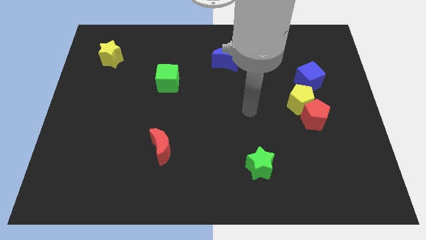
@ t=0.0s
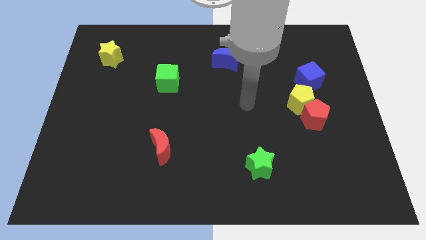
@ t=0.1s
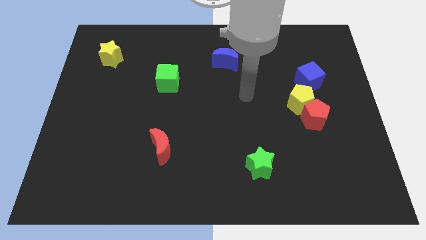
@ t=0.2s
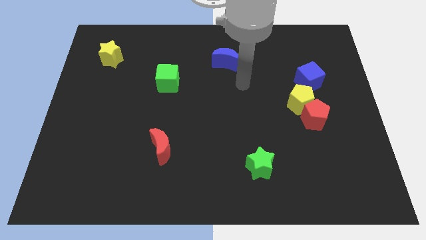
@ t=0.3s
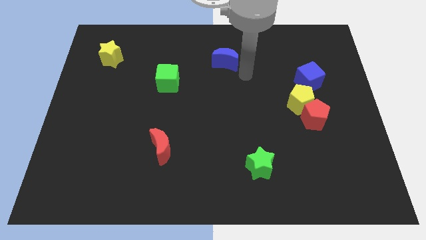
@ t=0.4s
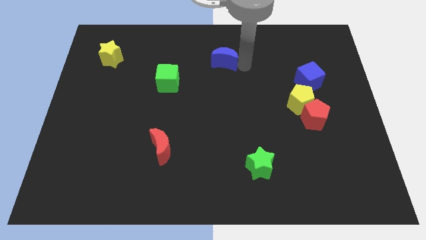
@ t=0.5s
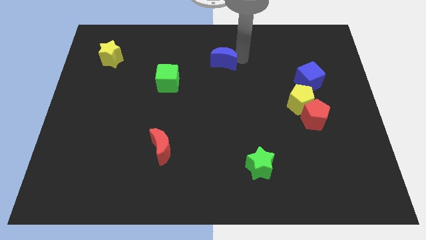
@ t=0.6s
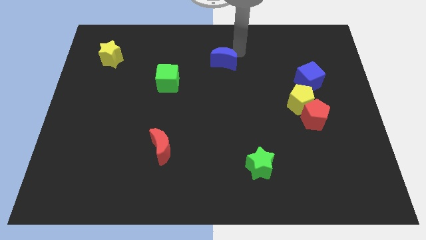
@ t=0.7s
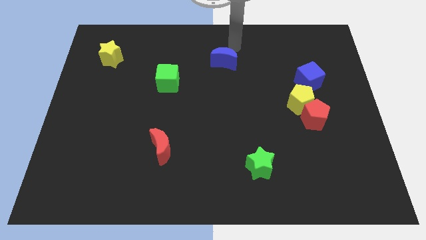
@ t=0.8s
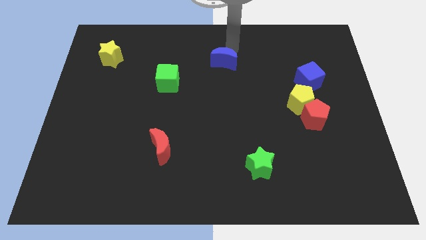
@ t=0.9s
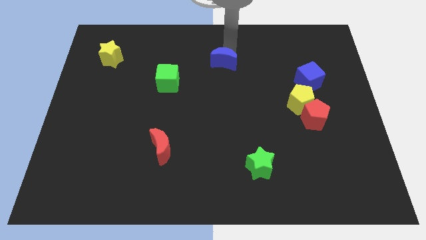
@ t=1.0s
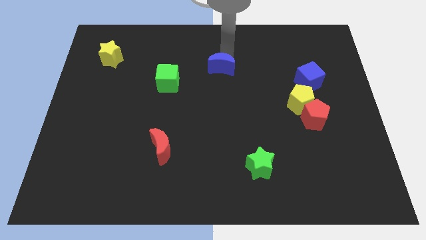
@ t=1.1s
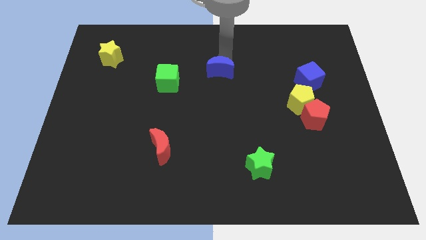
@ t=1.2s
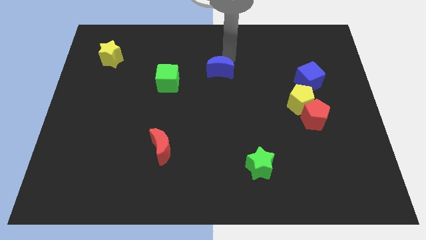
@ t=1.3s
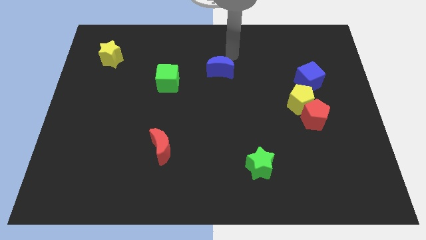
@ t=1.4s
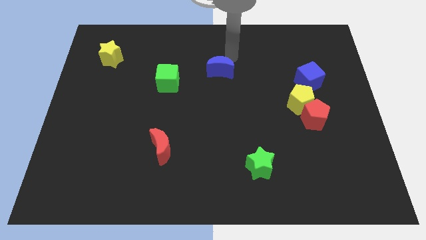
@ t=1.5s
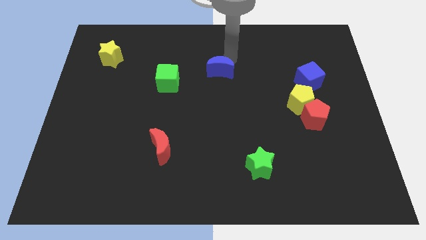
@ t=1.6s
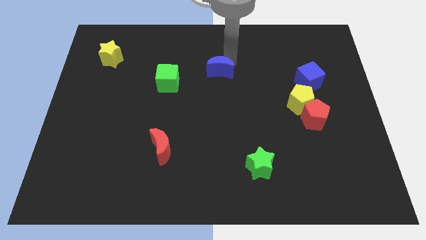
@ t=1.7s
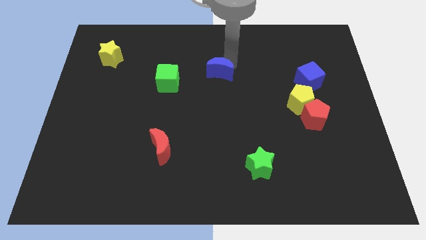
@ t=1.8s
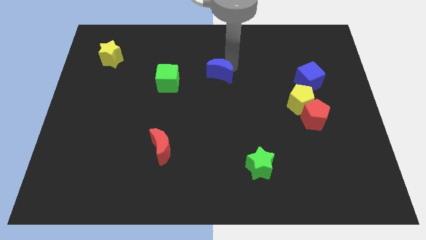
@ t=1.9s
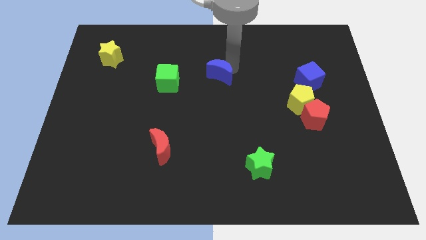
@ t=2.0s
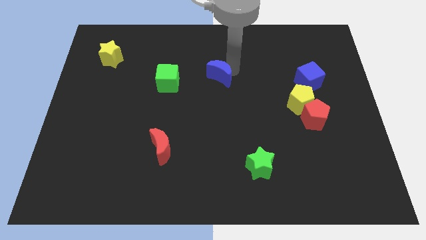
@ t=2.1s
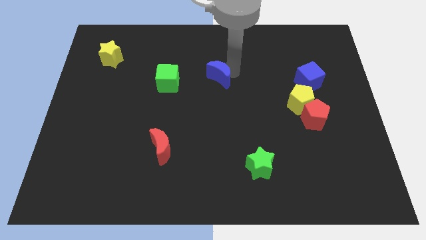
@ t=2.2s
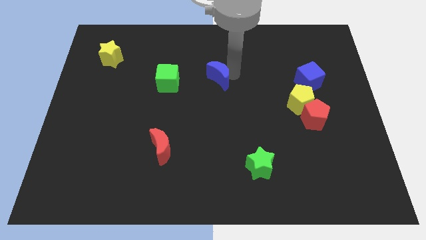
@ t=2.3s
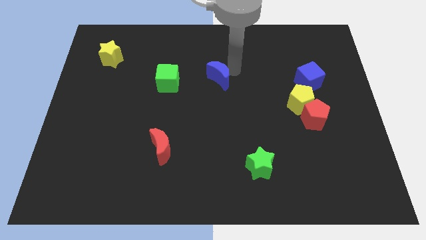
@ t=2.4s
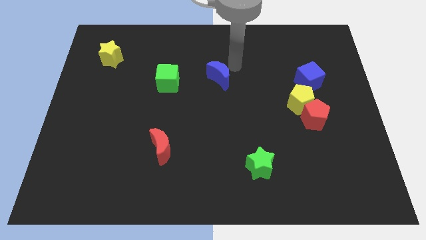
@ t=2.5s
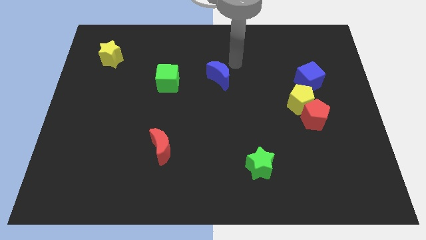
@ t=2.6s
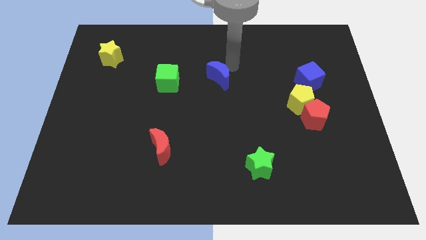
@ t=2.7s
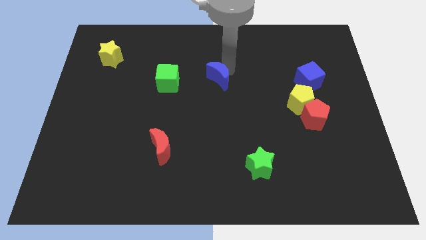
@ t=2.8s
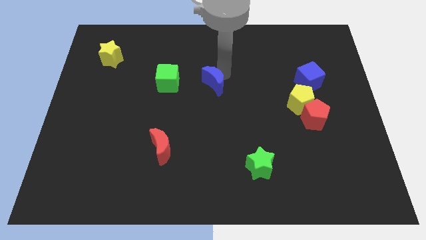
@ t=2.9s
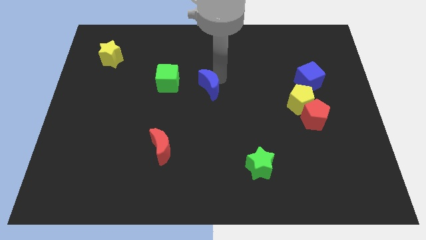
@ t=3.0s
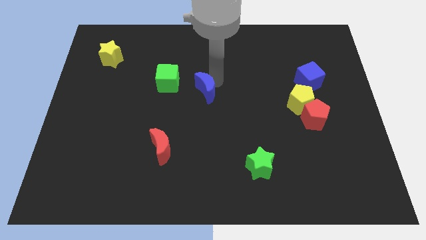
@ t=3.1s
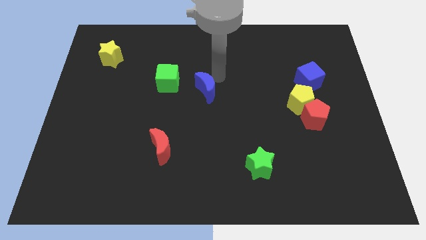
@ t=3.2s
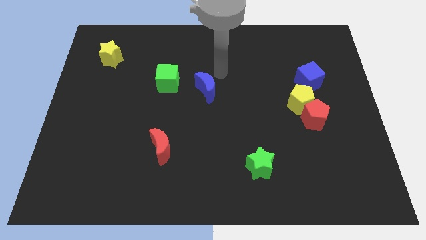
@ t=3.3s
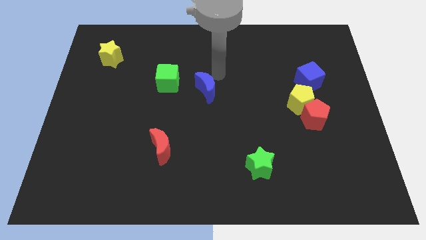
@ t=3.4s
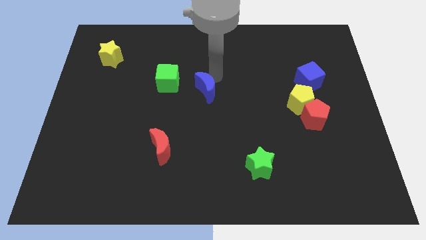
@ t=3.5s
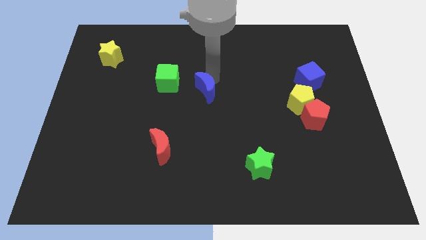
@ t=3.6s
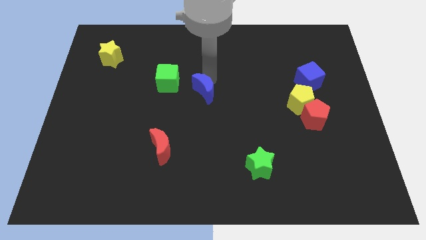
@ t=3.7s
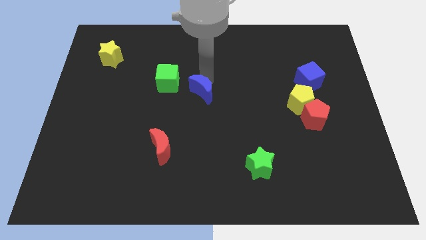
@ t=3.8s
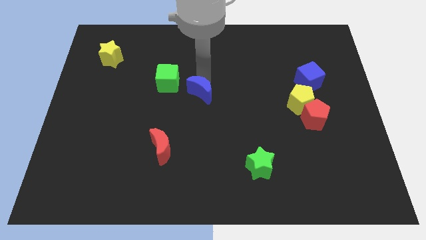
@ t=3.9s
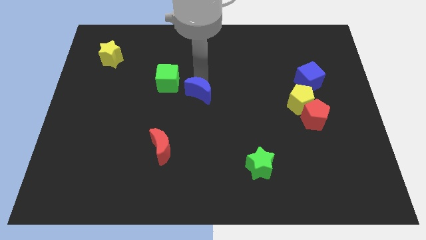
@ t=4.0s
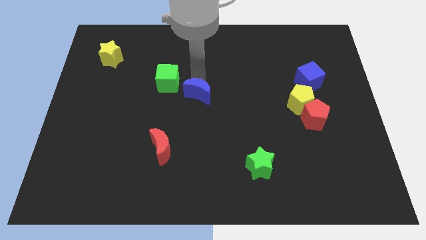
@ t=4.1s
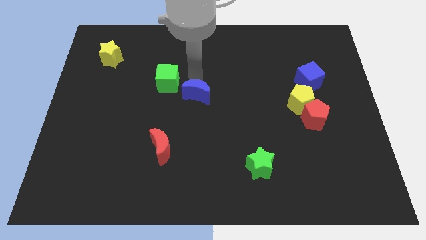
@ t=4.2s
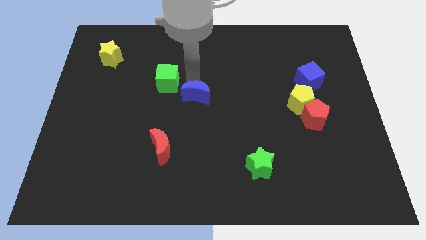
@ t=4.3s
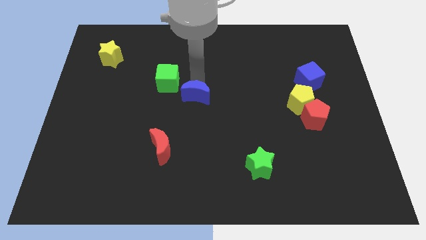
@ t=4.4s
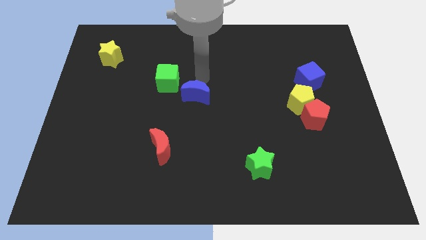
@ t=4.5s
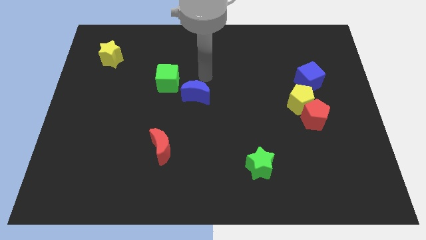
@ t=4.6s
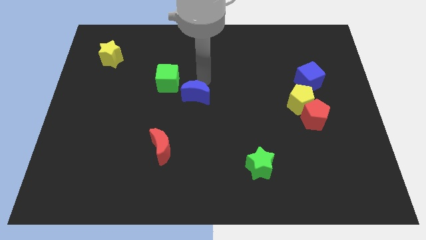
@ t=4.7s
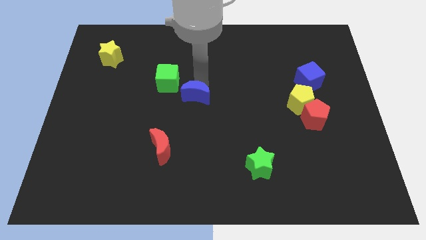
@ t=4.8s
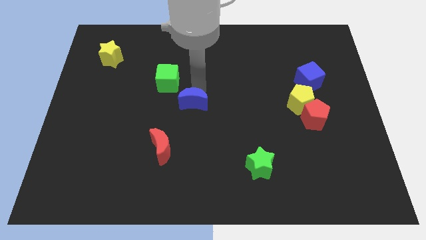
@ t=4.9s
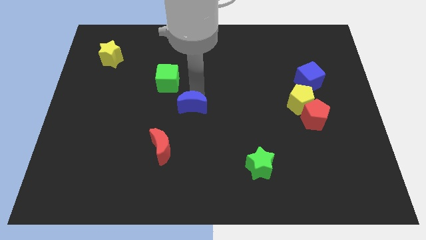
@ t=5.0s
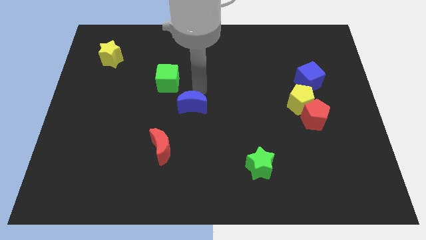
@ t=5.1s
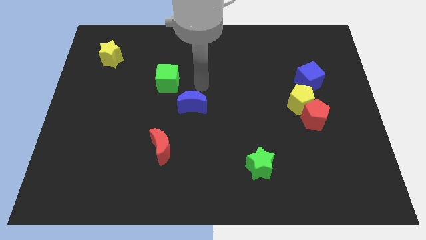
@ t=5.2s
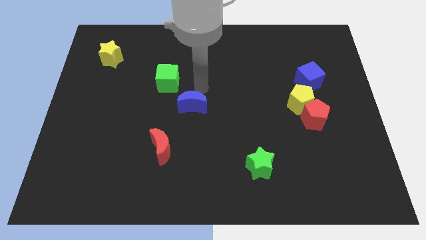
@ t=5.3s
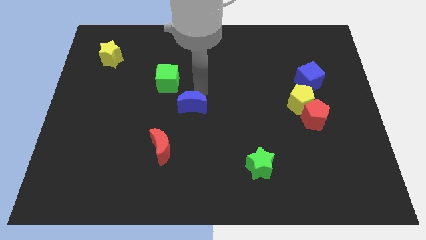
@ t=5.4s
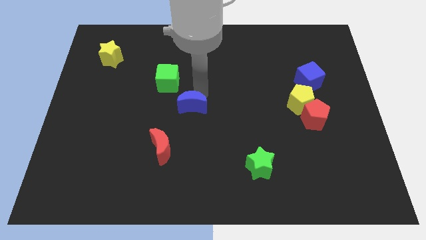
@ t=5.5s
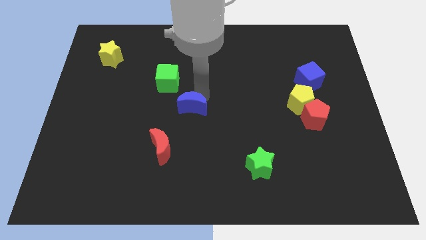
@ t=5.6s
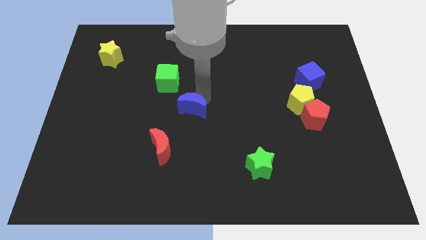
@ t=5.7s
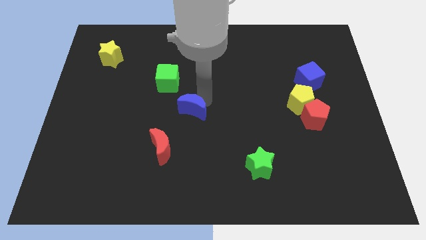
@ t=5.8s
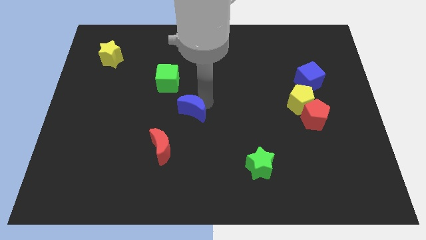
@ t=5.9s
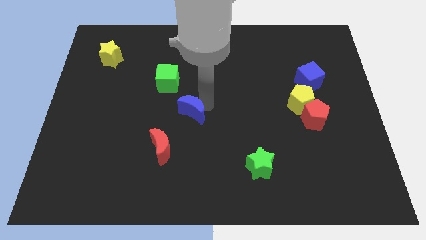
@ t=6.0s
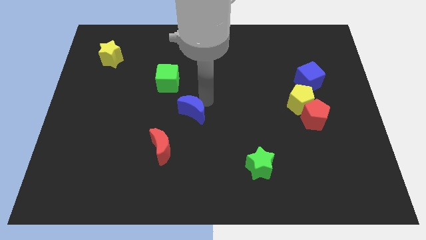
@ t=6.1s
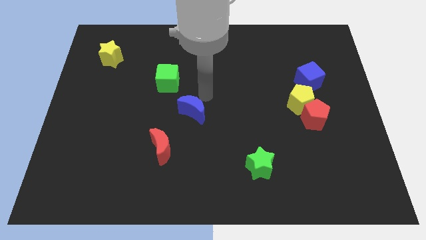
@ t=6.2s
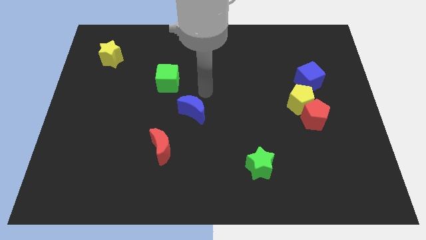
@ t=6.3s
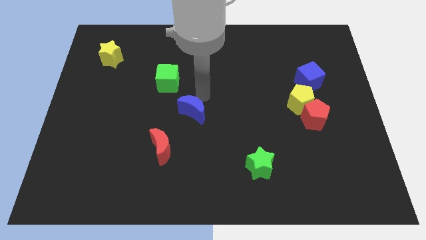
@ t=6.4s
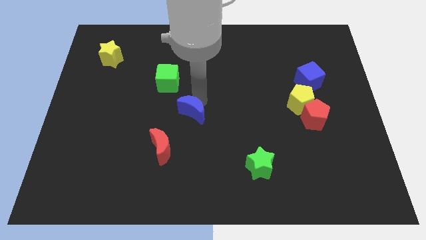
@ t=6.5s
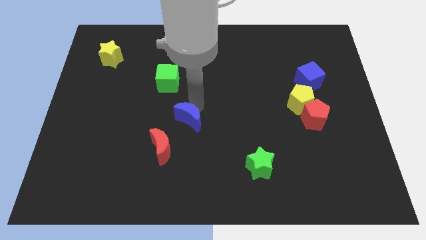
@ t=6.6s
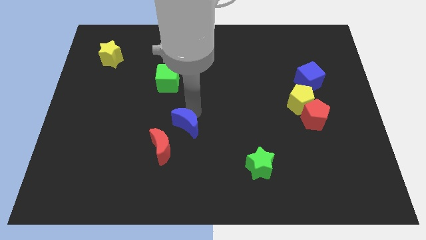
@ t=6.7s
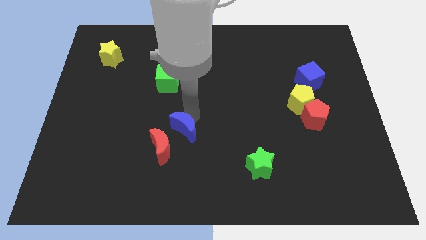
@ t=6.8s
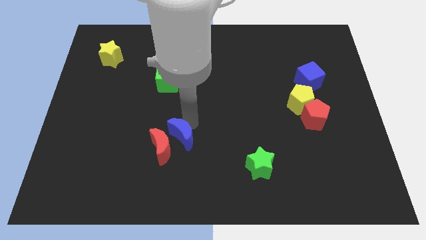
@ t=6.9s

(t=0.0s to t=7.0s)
move the blue moon next to the red moon
